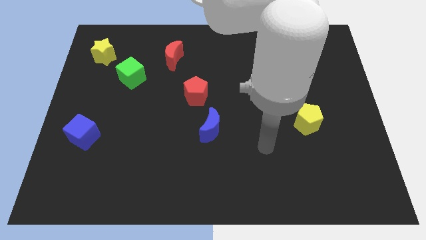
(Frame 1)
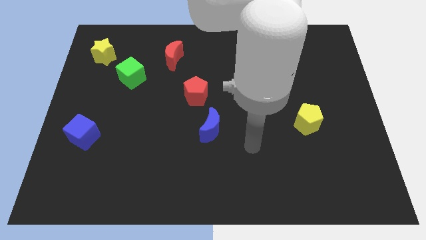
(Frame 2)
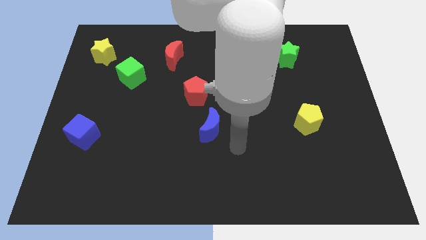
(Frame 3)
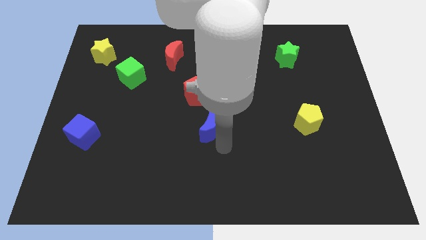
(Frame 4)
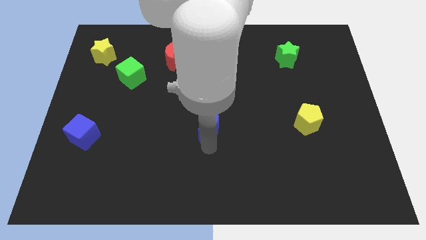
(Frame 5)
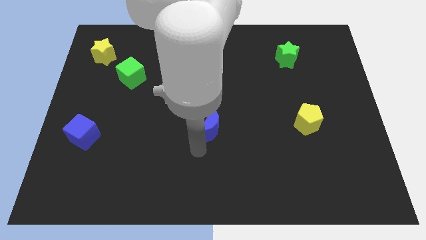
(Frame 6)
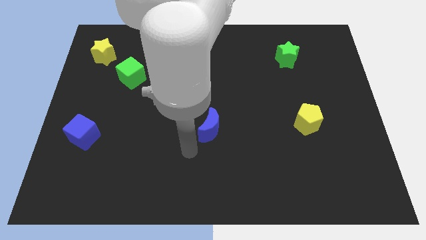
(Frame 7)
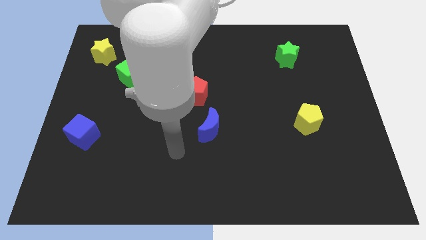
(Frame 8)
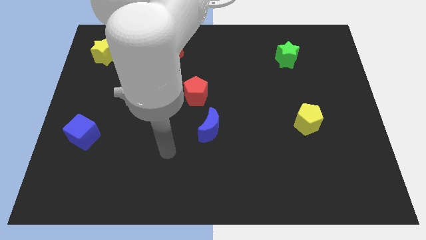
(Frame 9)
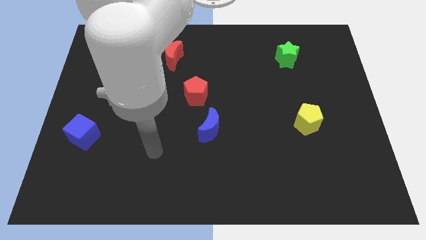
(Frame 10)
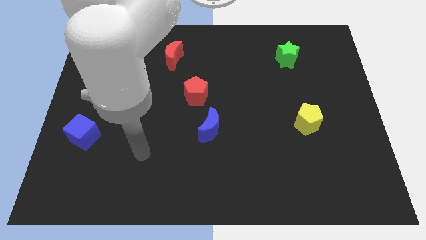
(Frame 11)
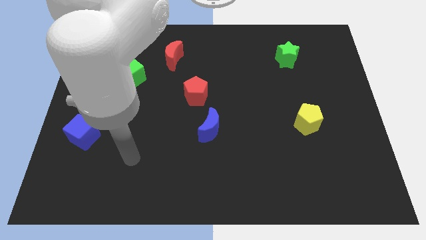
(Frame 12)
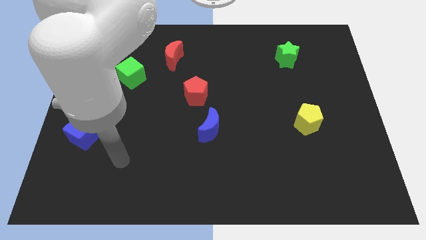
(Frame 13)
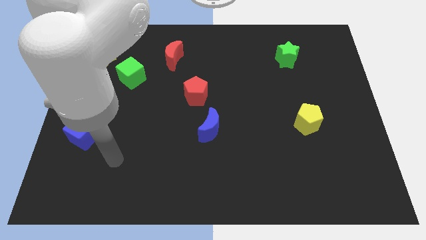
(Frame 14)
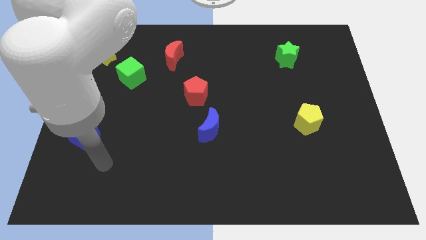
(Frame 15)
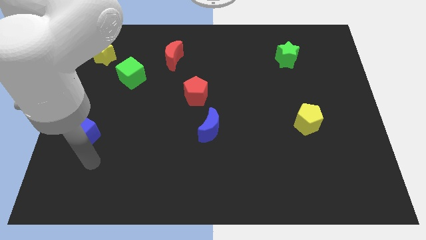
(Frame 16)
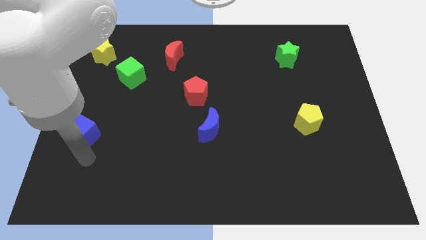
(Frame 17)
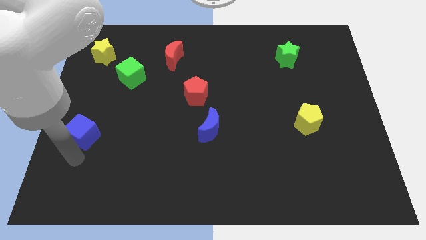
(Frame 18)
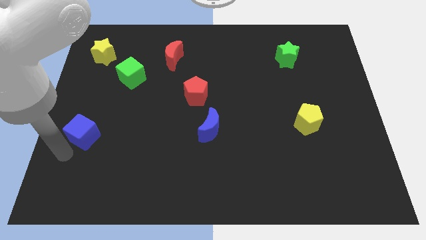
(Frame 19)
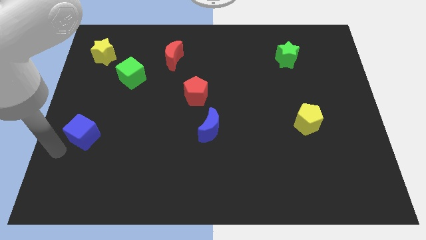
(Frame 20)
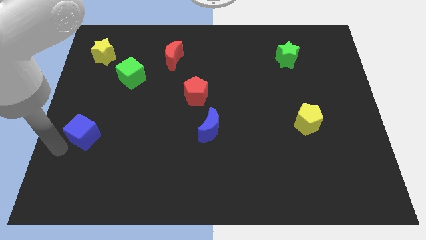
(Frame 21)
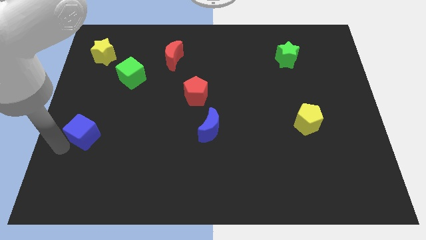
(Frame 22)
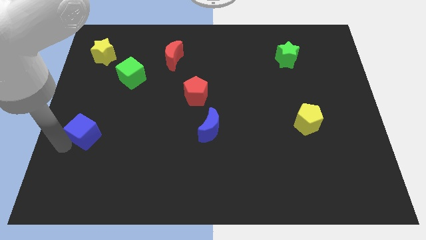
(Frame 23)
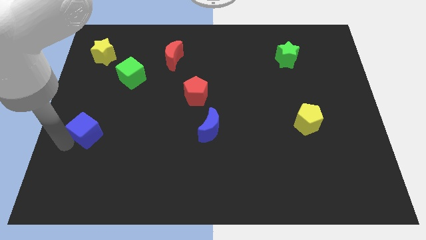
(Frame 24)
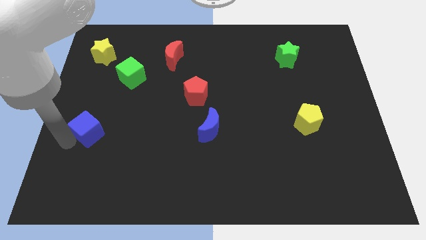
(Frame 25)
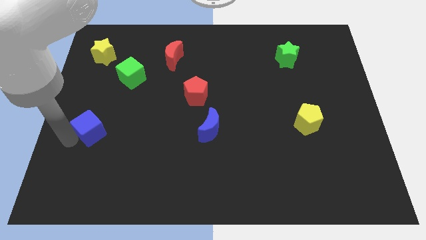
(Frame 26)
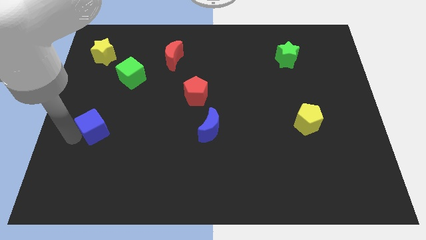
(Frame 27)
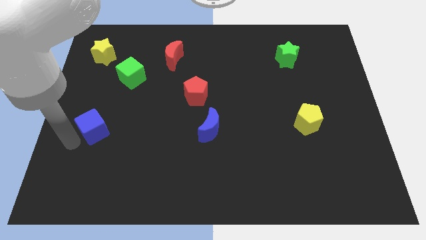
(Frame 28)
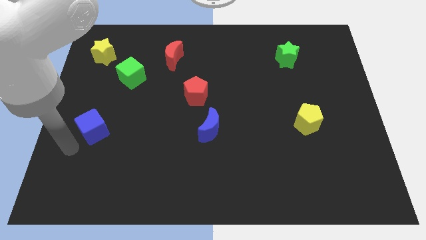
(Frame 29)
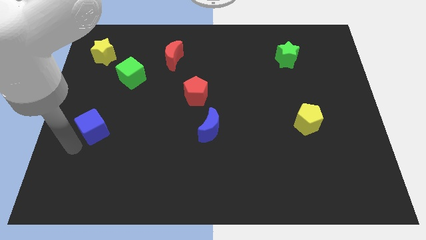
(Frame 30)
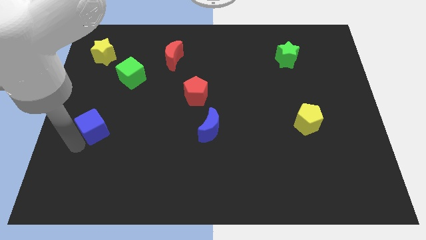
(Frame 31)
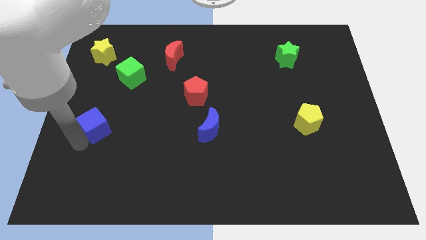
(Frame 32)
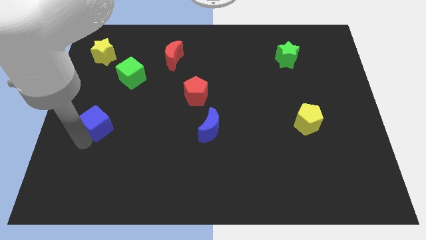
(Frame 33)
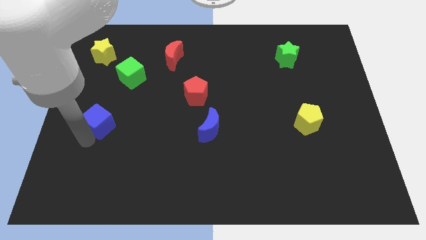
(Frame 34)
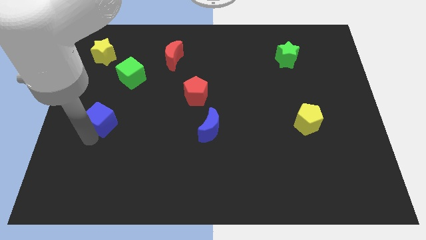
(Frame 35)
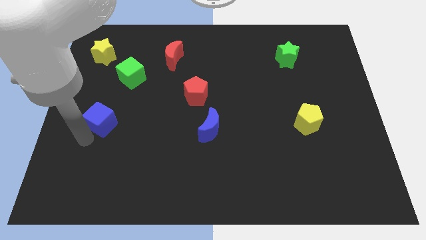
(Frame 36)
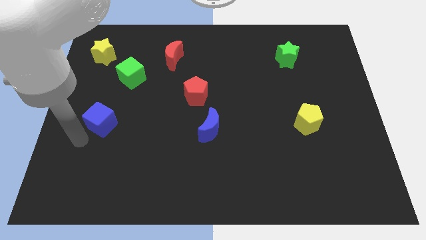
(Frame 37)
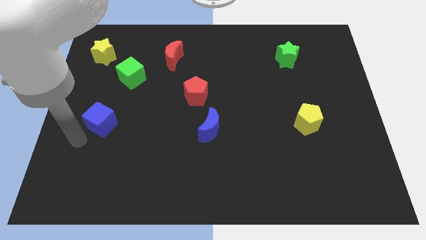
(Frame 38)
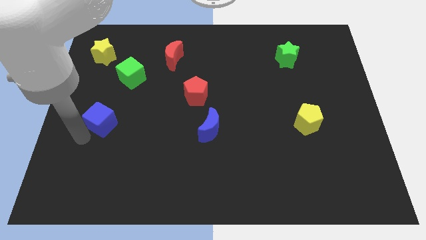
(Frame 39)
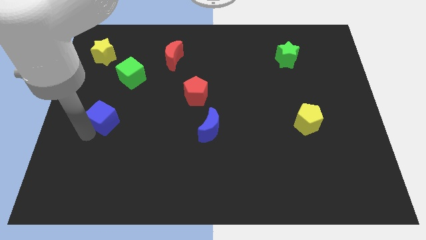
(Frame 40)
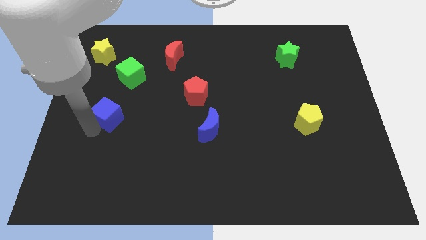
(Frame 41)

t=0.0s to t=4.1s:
slide the blue cube upwards and right a little

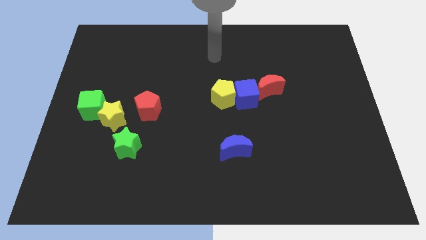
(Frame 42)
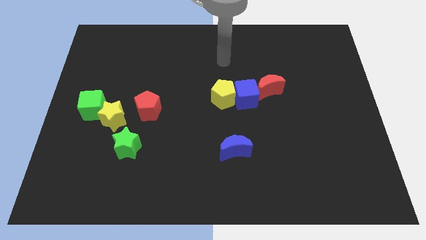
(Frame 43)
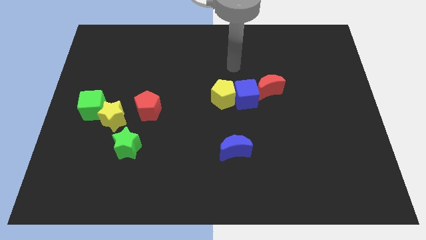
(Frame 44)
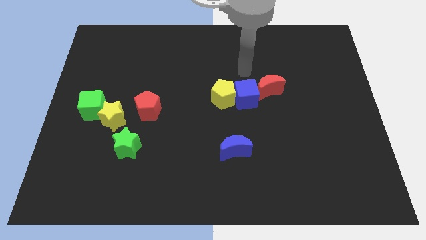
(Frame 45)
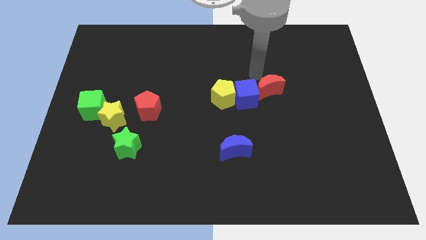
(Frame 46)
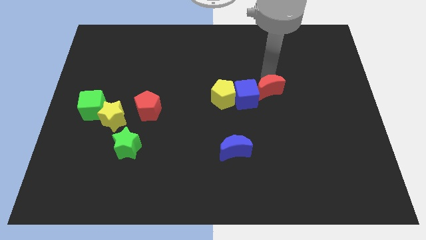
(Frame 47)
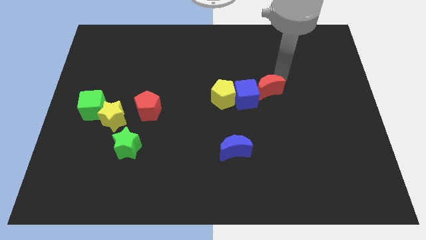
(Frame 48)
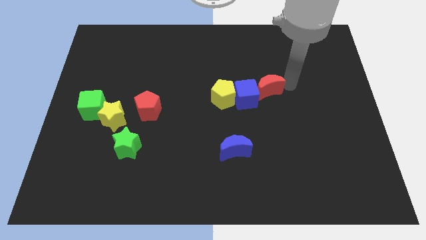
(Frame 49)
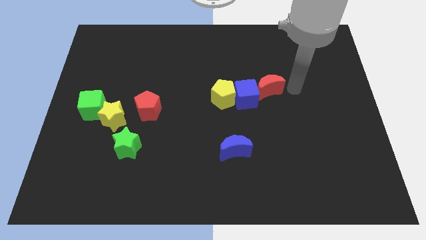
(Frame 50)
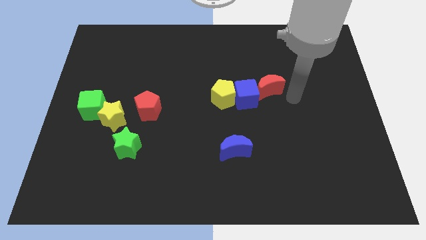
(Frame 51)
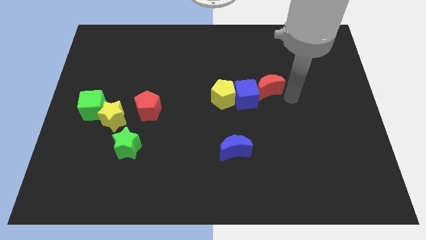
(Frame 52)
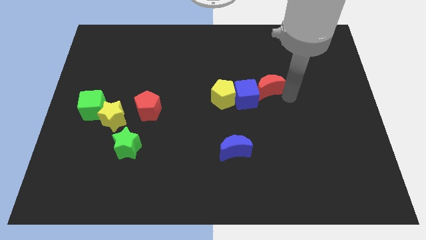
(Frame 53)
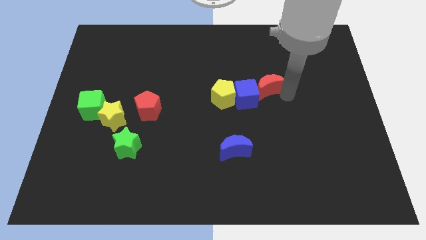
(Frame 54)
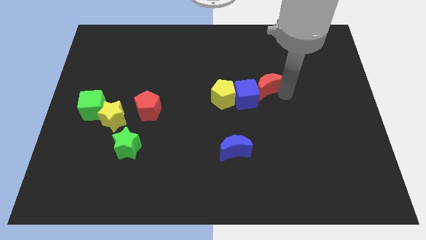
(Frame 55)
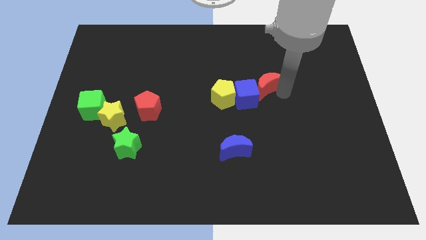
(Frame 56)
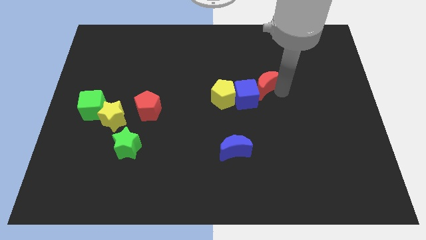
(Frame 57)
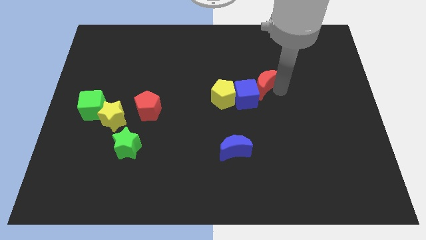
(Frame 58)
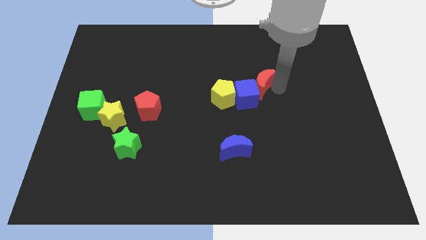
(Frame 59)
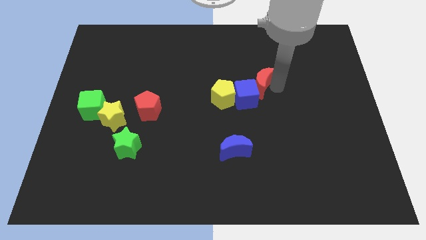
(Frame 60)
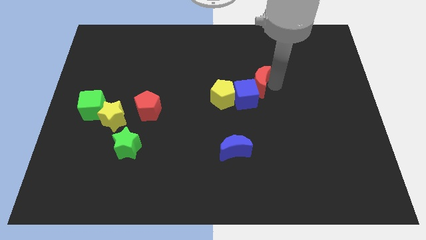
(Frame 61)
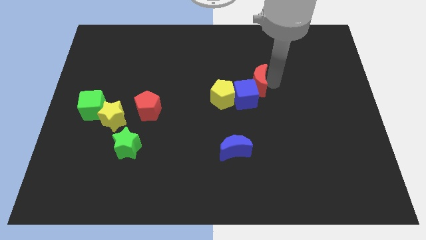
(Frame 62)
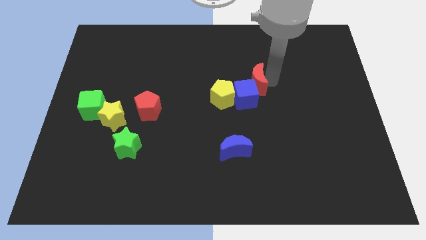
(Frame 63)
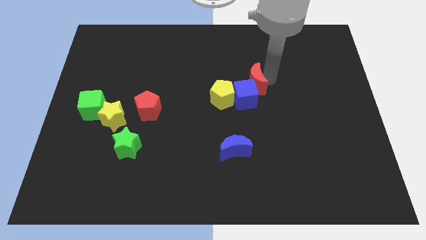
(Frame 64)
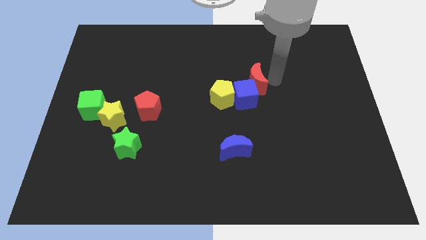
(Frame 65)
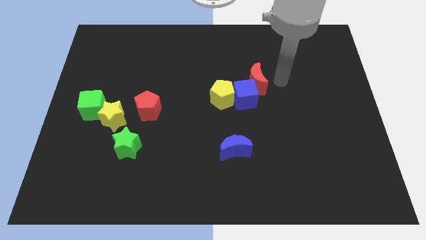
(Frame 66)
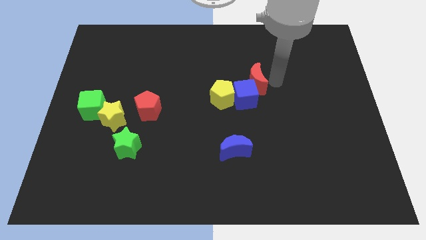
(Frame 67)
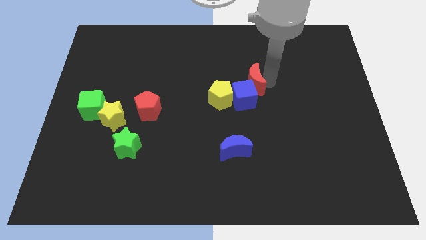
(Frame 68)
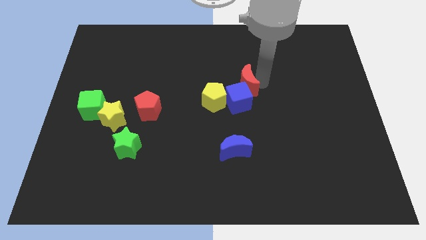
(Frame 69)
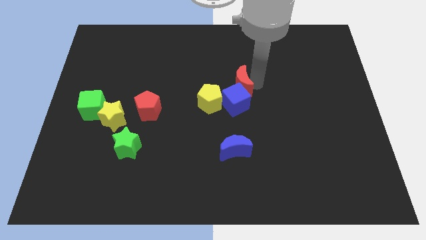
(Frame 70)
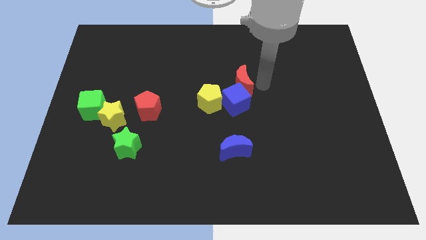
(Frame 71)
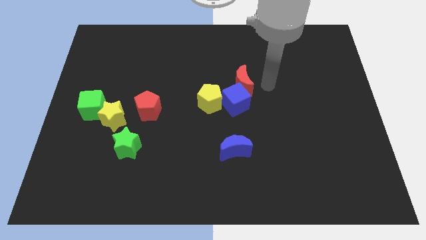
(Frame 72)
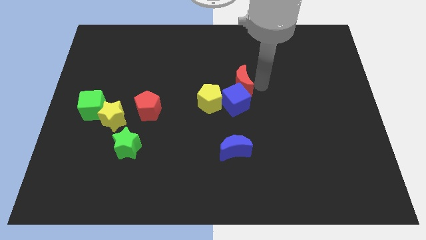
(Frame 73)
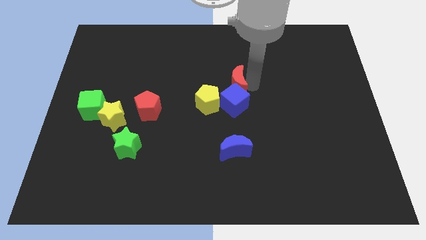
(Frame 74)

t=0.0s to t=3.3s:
move the red moon left a bit

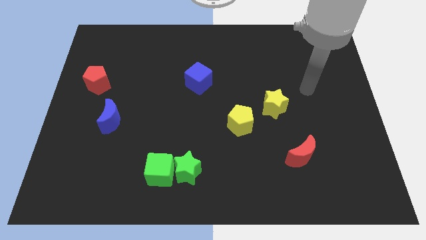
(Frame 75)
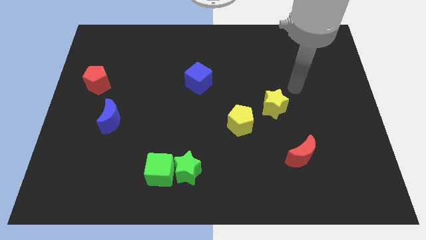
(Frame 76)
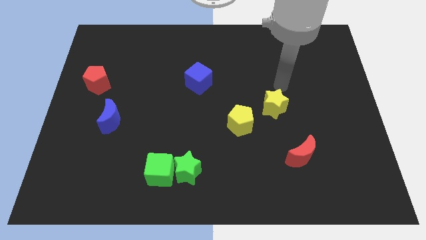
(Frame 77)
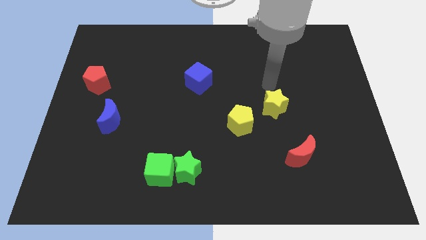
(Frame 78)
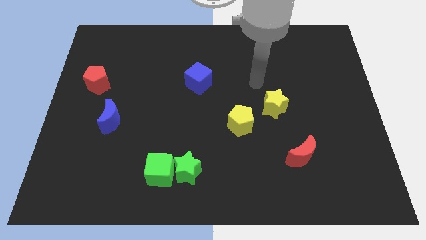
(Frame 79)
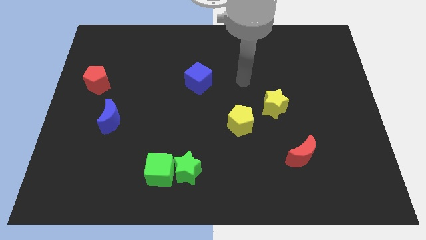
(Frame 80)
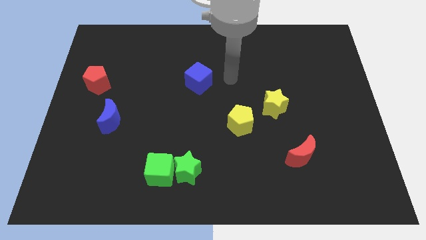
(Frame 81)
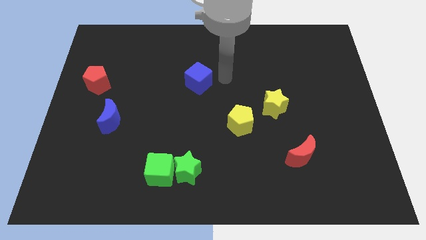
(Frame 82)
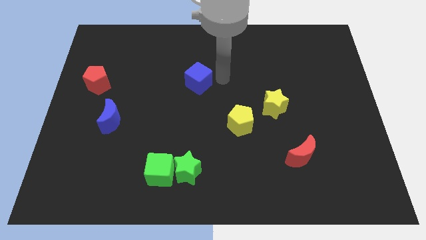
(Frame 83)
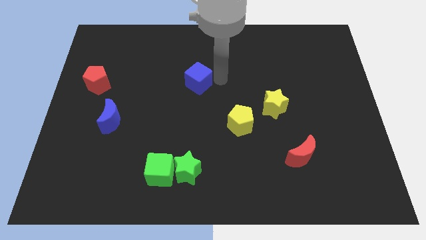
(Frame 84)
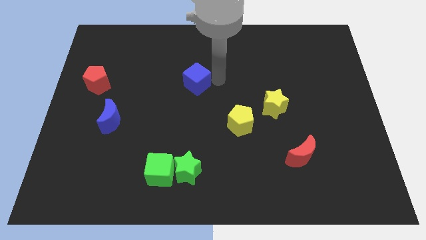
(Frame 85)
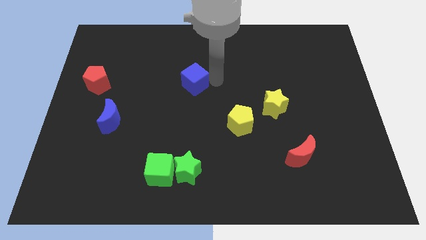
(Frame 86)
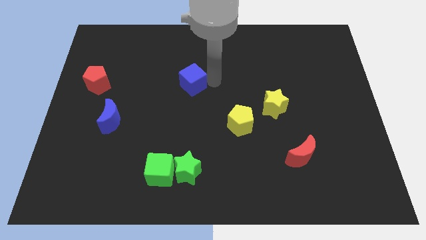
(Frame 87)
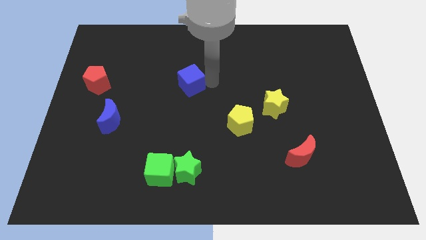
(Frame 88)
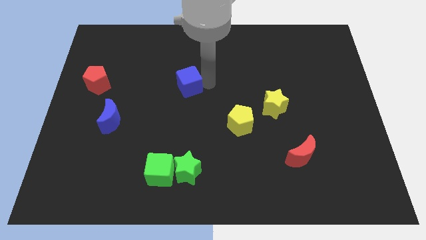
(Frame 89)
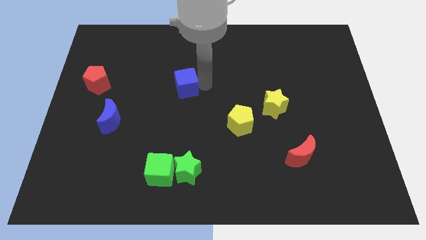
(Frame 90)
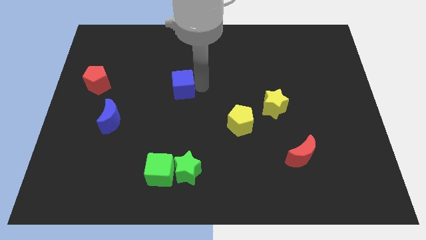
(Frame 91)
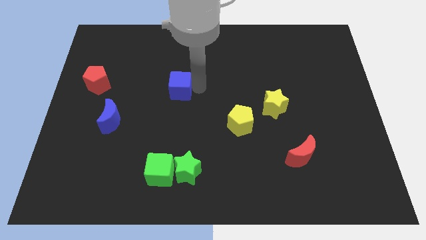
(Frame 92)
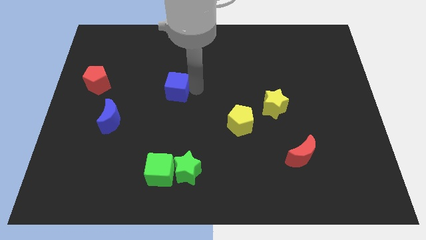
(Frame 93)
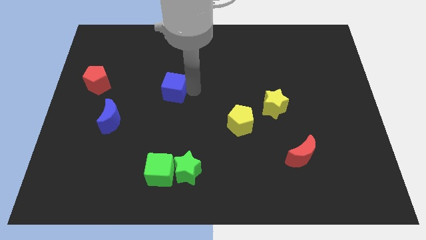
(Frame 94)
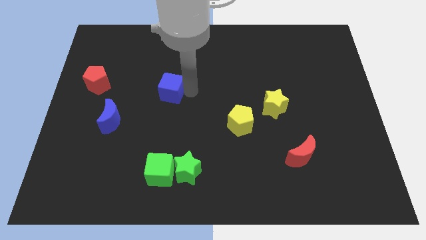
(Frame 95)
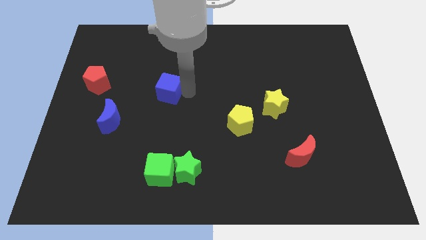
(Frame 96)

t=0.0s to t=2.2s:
move the blue cube a little to the left
